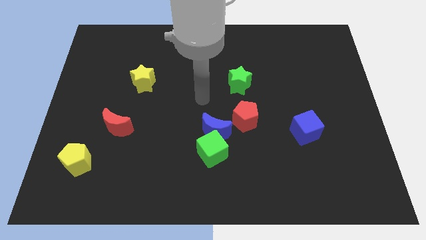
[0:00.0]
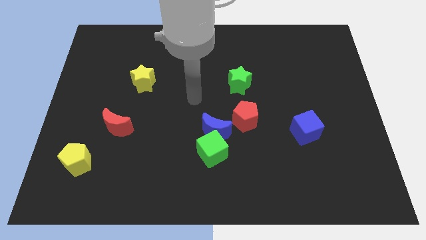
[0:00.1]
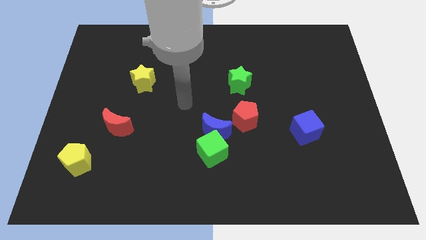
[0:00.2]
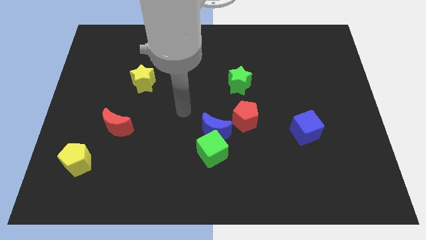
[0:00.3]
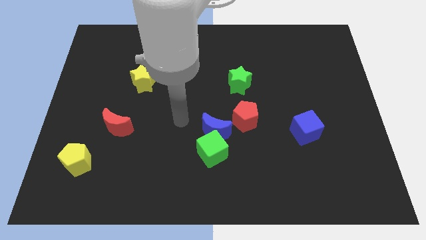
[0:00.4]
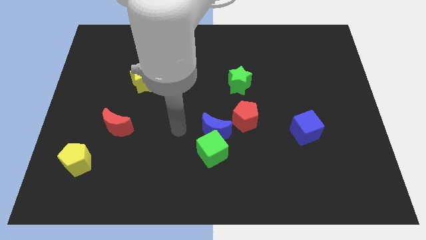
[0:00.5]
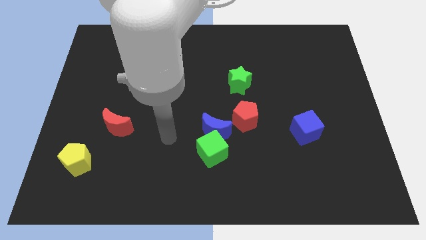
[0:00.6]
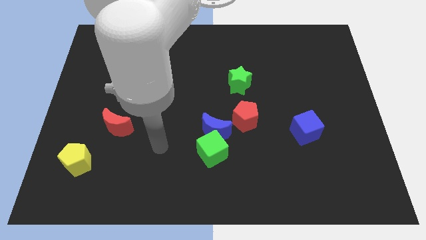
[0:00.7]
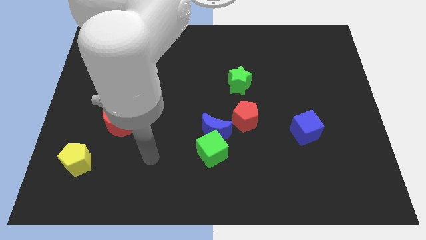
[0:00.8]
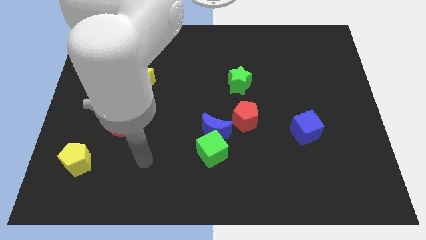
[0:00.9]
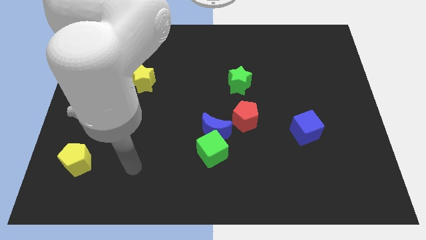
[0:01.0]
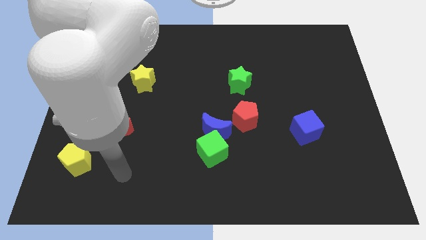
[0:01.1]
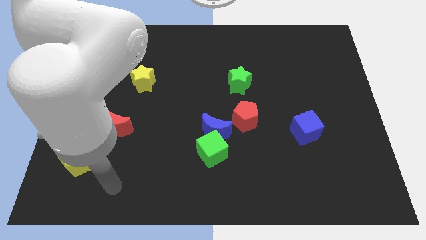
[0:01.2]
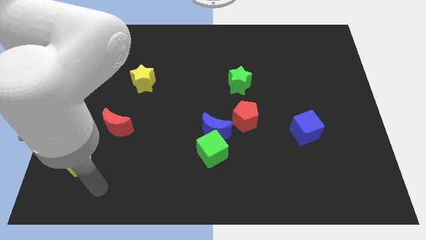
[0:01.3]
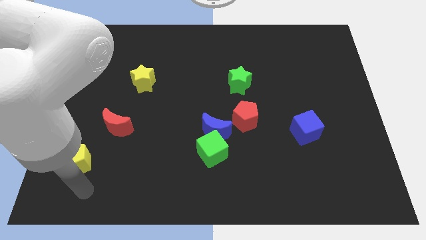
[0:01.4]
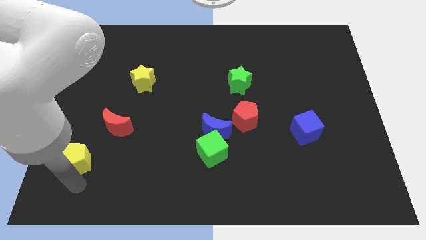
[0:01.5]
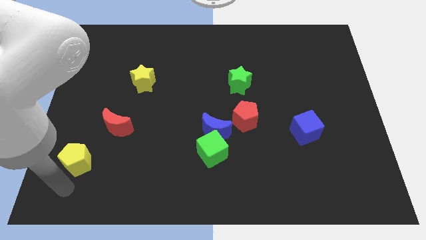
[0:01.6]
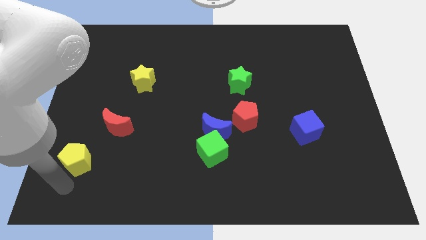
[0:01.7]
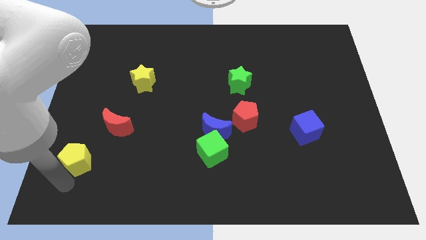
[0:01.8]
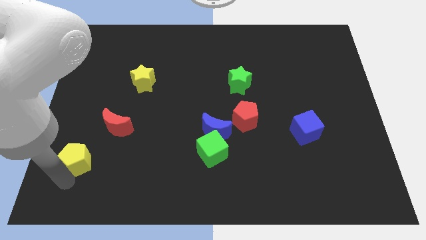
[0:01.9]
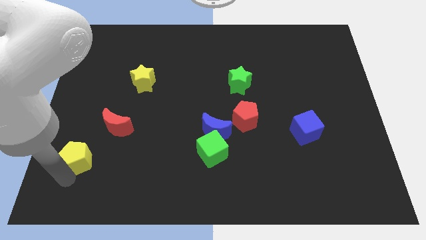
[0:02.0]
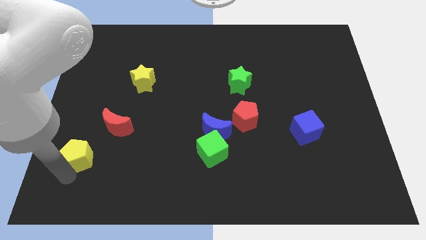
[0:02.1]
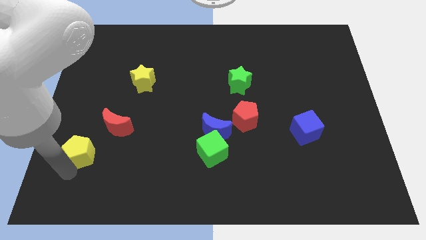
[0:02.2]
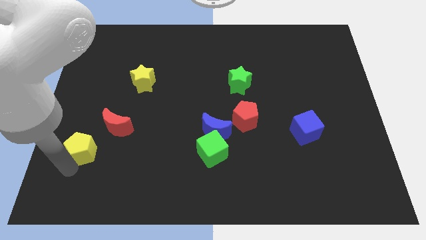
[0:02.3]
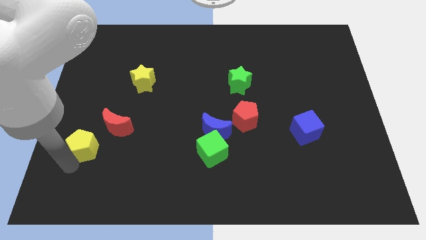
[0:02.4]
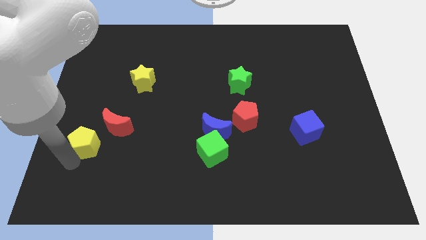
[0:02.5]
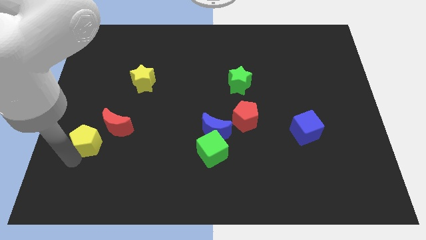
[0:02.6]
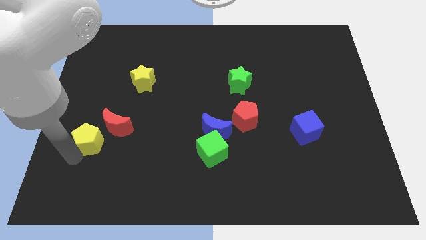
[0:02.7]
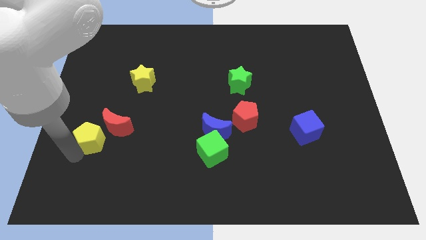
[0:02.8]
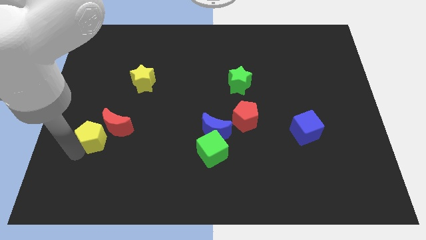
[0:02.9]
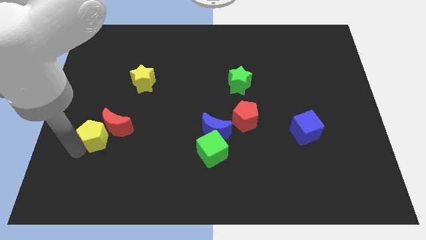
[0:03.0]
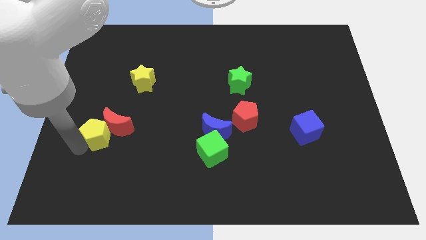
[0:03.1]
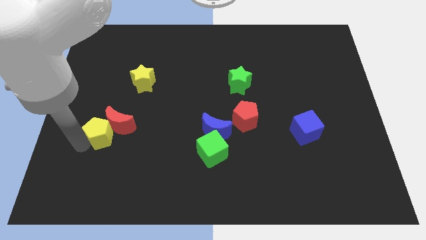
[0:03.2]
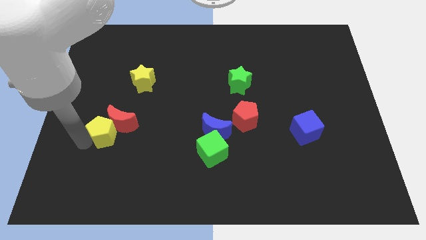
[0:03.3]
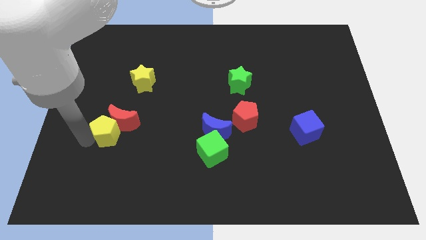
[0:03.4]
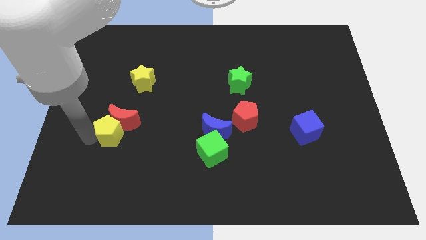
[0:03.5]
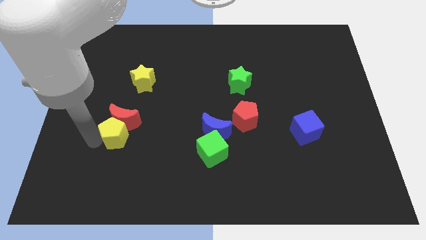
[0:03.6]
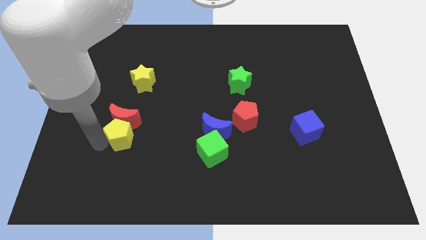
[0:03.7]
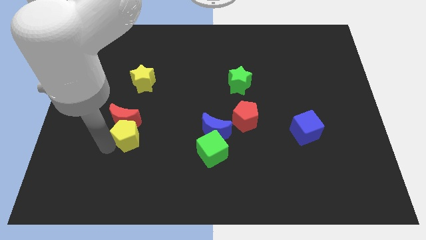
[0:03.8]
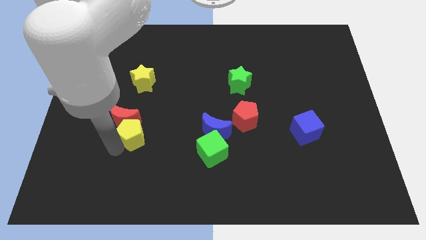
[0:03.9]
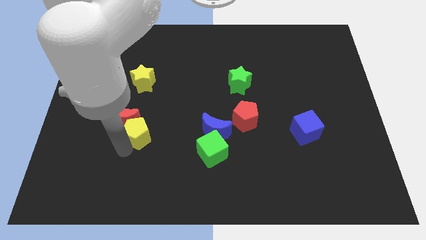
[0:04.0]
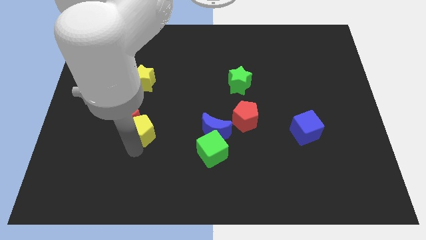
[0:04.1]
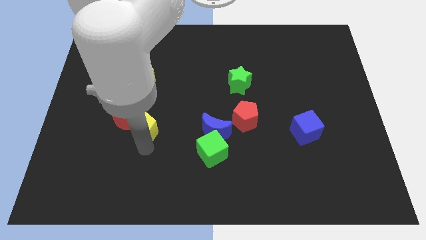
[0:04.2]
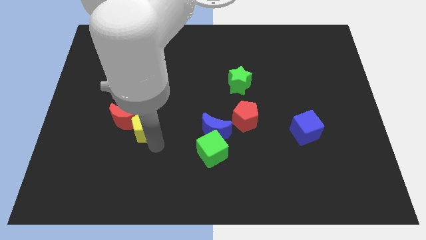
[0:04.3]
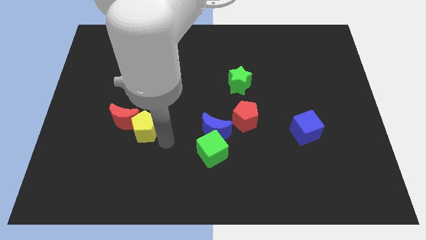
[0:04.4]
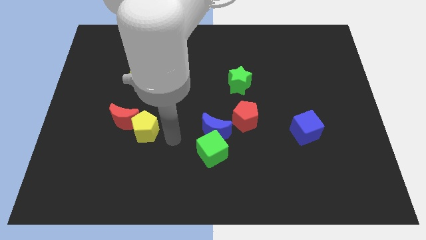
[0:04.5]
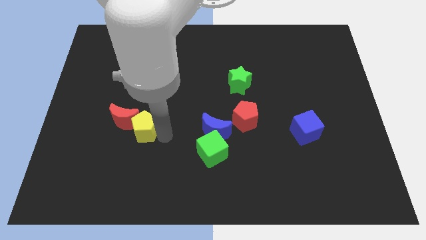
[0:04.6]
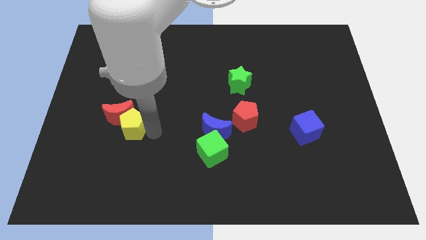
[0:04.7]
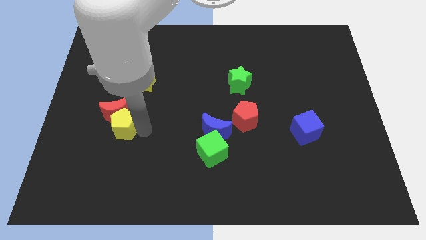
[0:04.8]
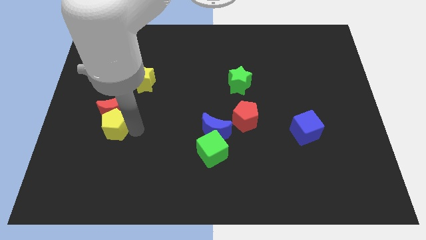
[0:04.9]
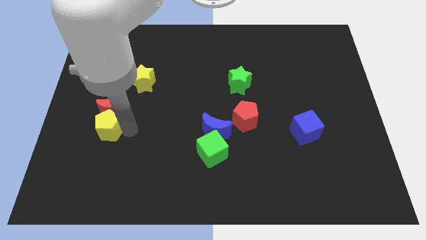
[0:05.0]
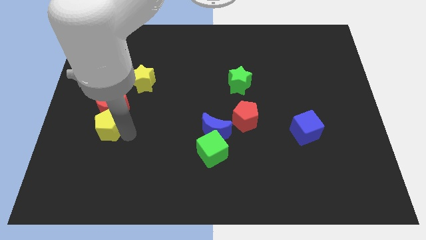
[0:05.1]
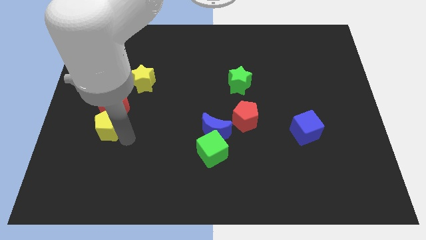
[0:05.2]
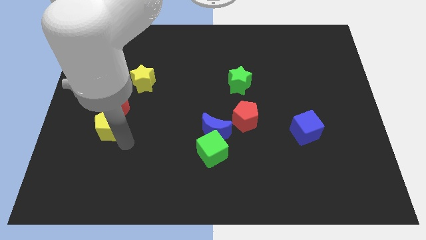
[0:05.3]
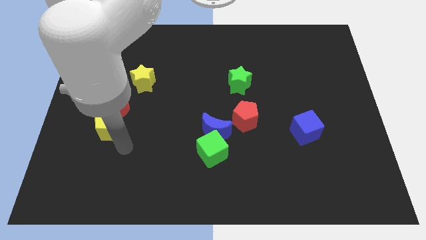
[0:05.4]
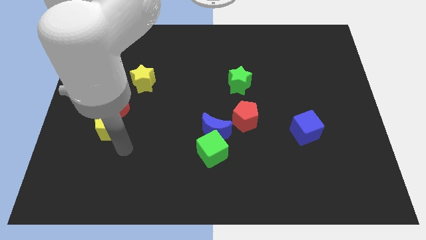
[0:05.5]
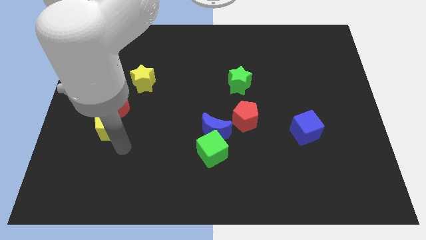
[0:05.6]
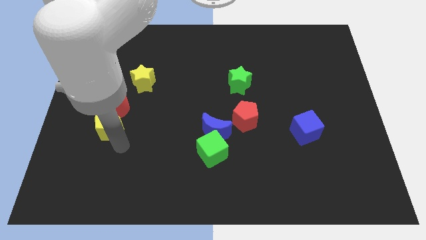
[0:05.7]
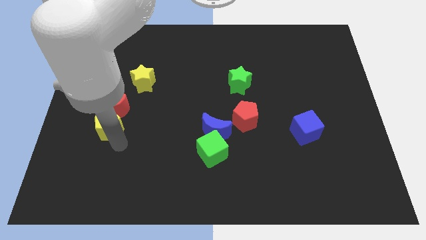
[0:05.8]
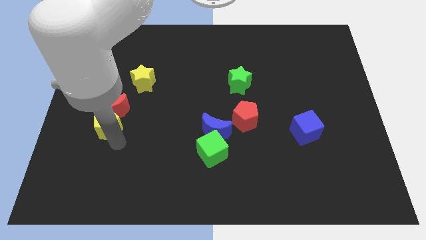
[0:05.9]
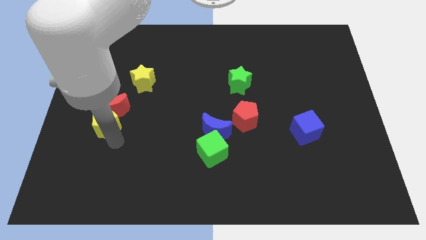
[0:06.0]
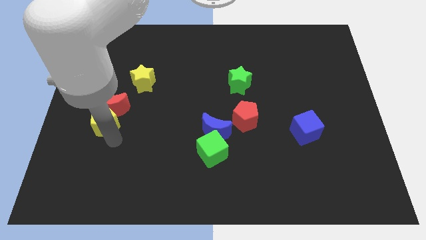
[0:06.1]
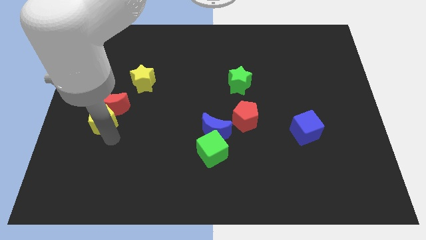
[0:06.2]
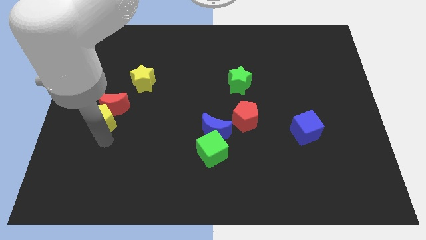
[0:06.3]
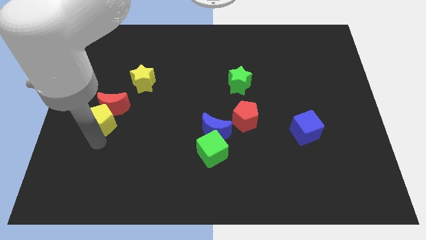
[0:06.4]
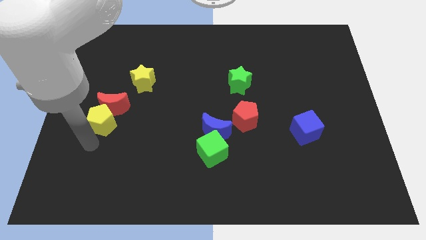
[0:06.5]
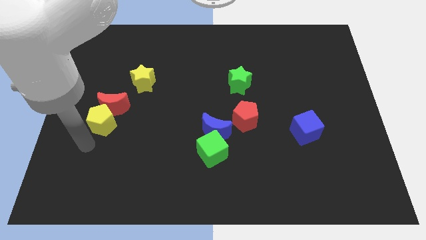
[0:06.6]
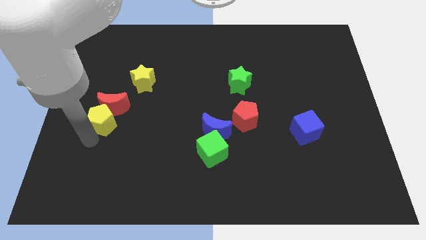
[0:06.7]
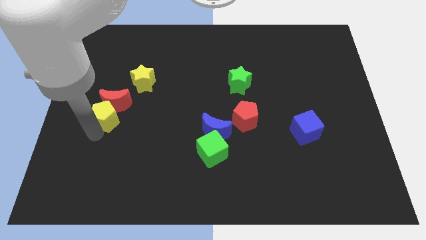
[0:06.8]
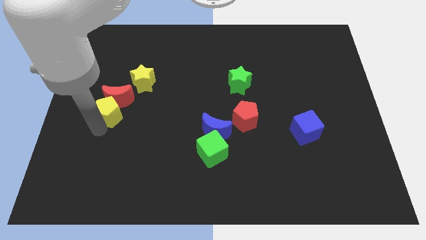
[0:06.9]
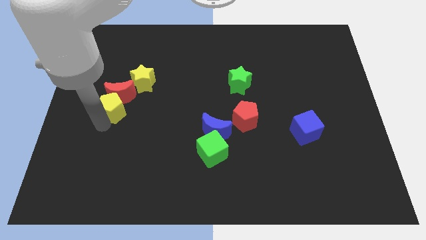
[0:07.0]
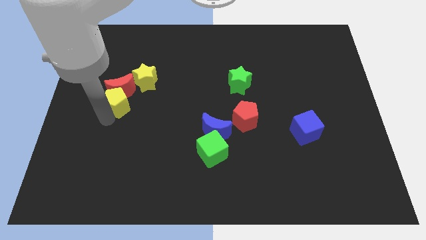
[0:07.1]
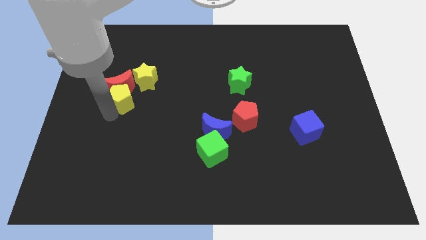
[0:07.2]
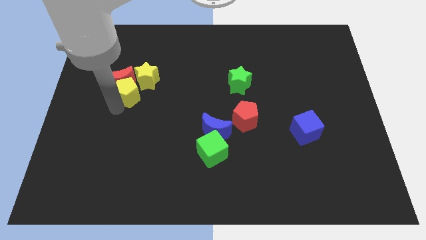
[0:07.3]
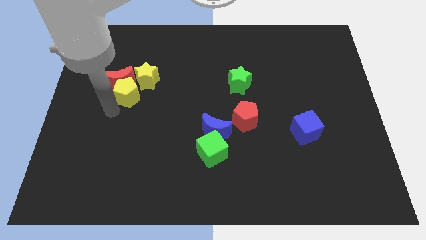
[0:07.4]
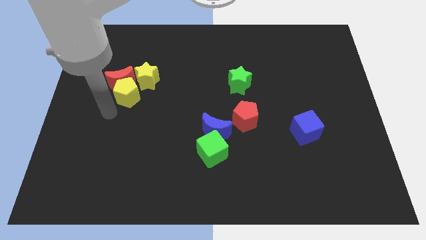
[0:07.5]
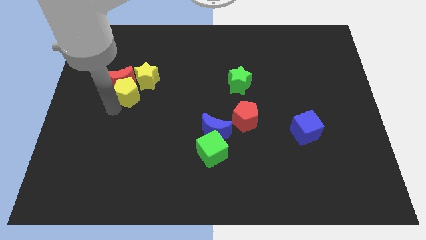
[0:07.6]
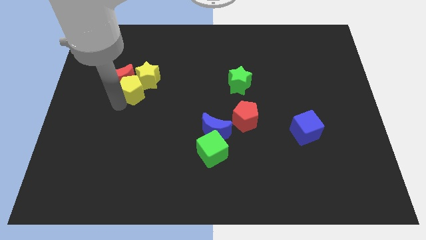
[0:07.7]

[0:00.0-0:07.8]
put the yellow pentagon close to the yellow star
